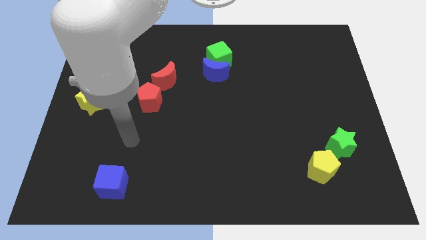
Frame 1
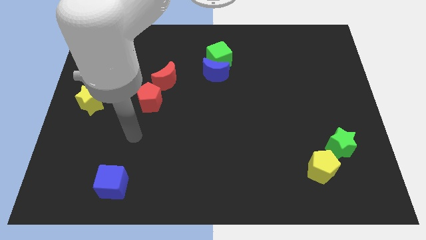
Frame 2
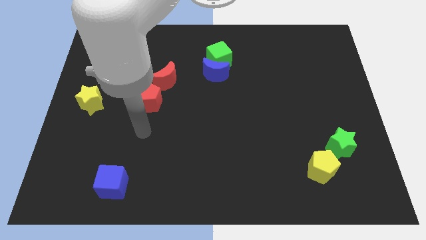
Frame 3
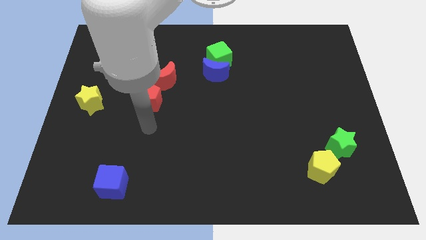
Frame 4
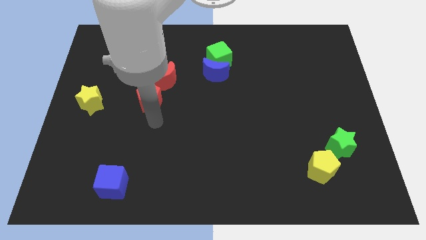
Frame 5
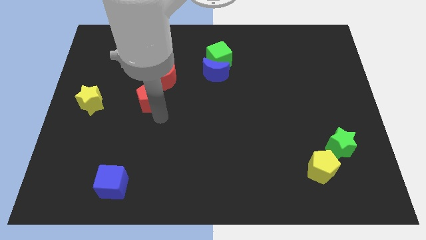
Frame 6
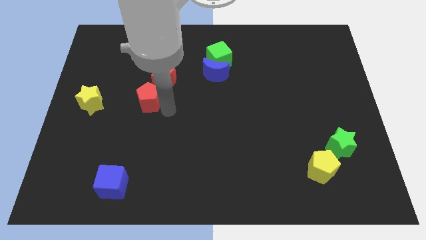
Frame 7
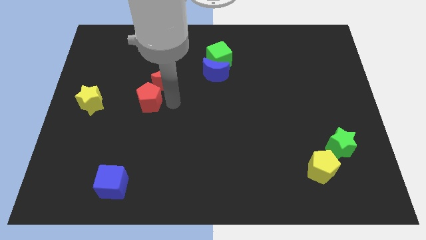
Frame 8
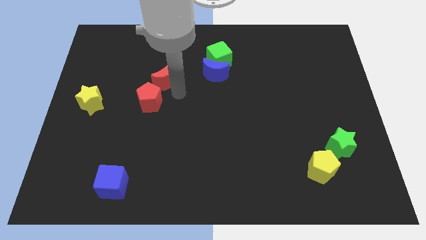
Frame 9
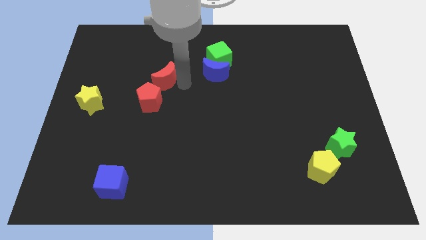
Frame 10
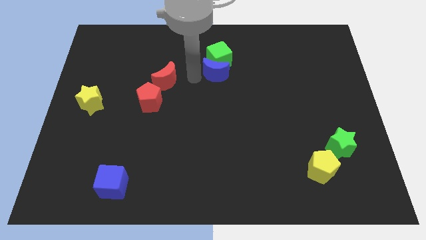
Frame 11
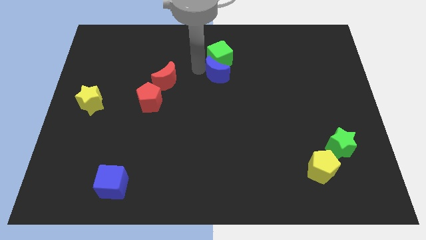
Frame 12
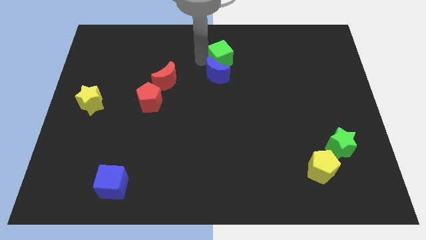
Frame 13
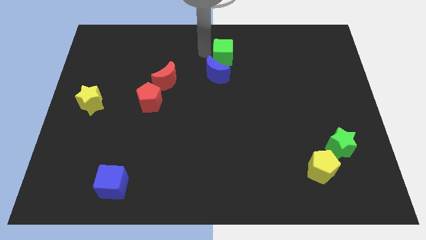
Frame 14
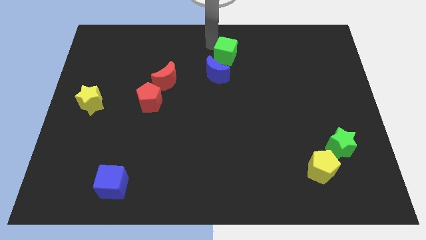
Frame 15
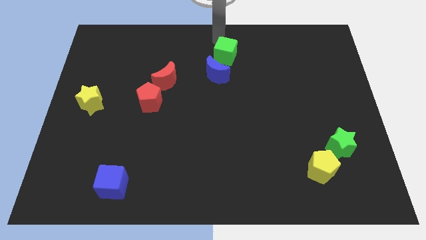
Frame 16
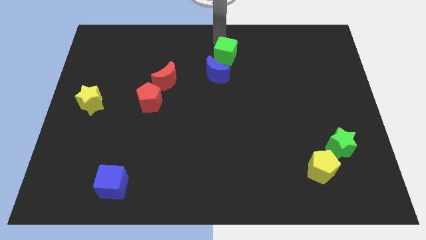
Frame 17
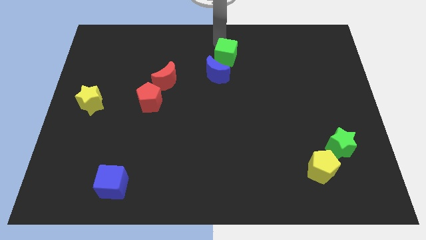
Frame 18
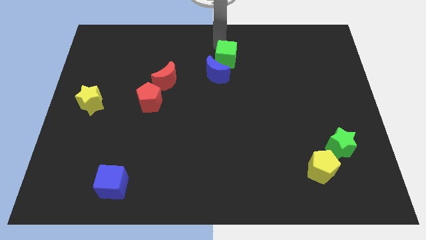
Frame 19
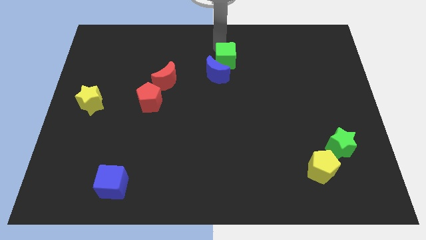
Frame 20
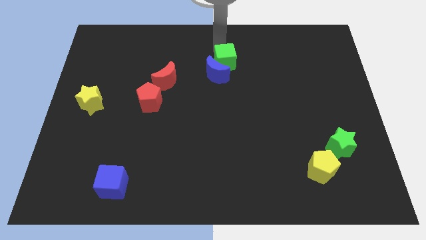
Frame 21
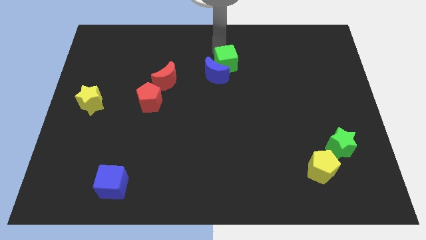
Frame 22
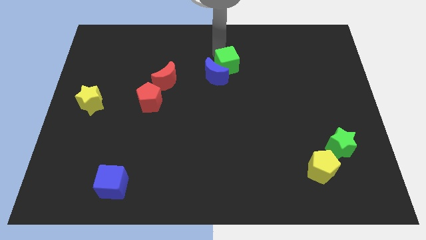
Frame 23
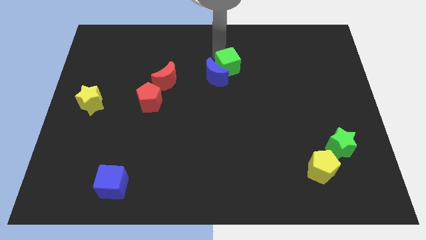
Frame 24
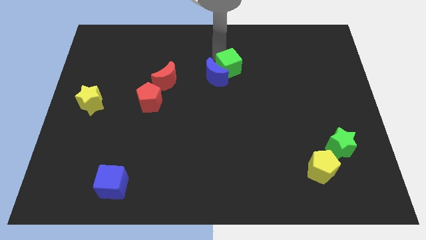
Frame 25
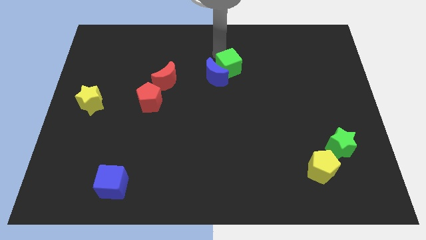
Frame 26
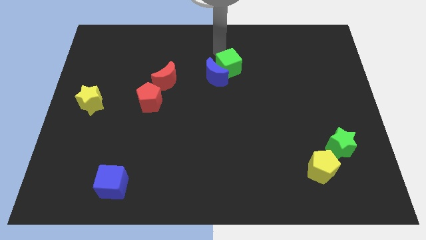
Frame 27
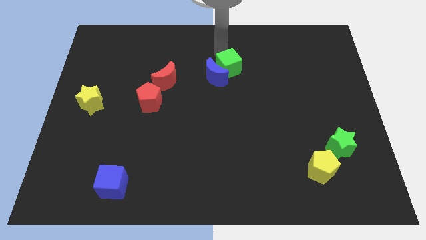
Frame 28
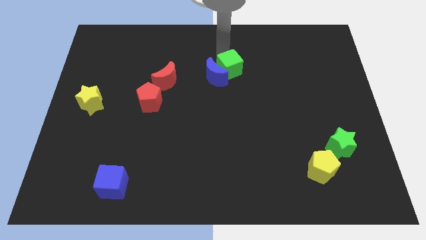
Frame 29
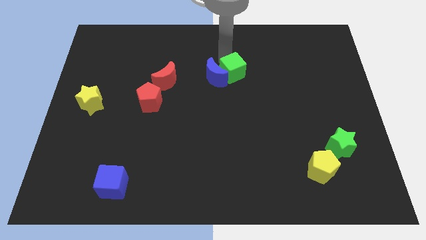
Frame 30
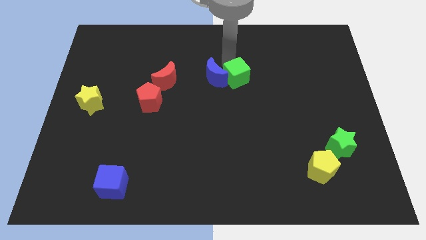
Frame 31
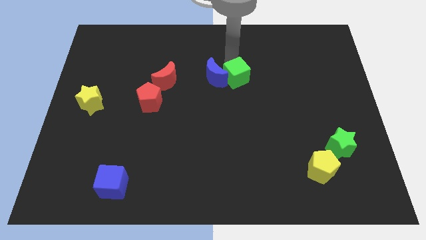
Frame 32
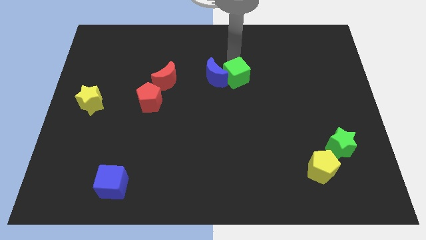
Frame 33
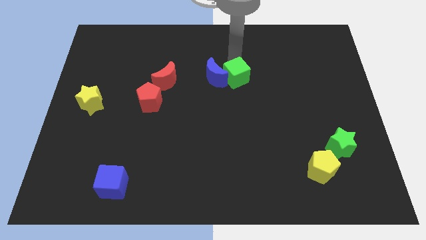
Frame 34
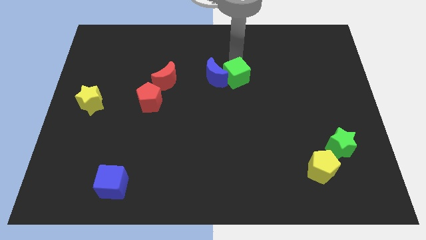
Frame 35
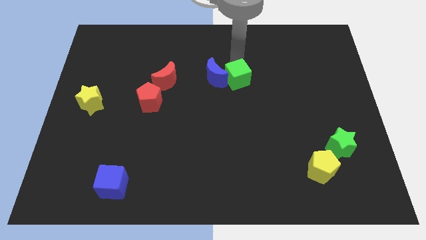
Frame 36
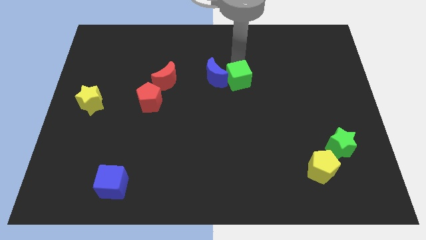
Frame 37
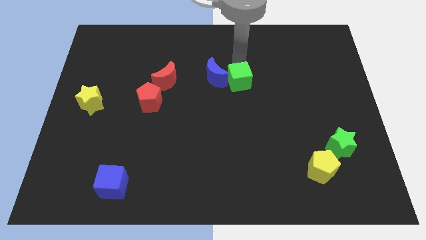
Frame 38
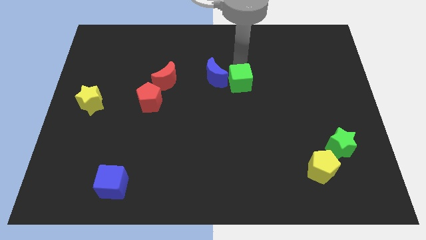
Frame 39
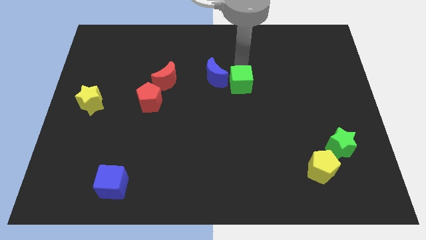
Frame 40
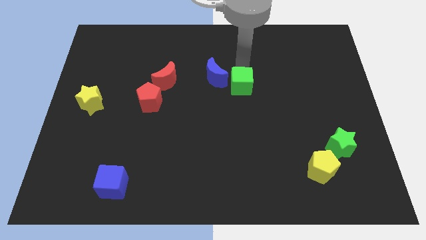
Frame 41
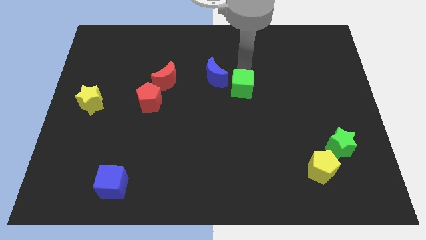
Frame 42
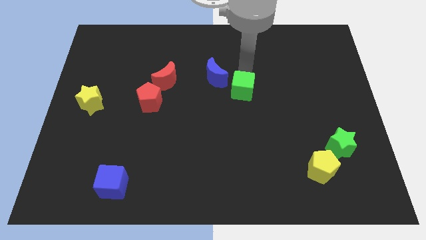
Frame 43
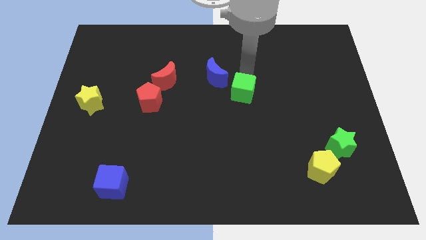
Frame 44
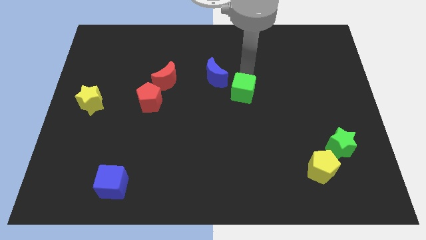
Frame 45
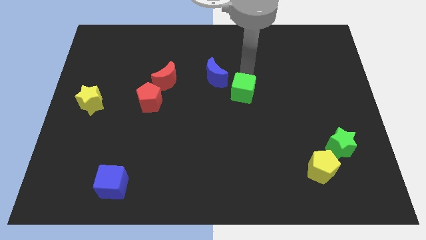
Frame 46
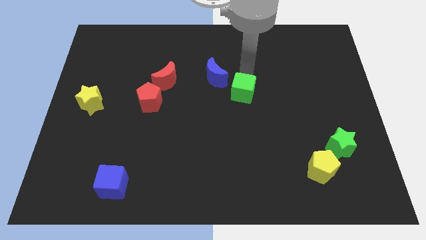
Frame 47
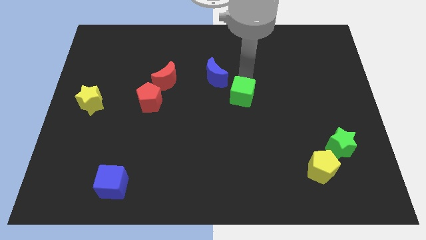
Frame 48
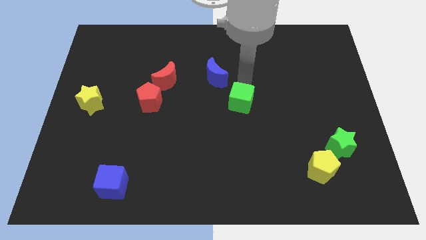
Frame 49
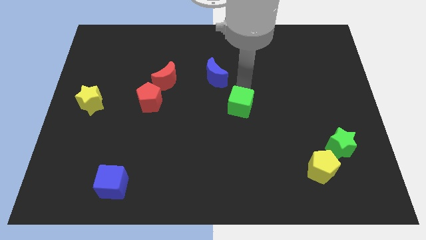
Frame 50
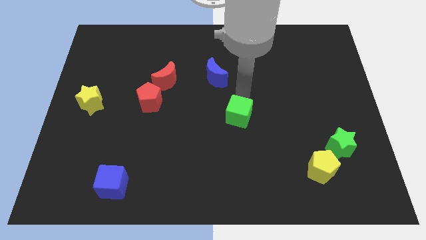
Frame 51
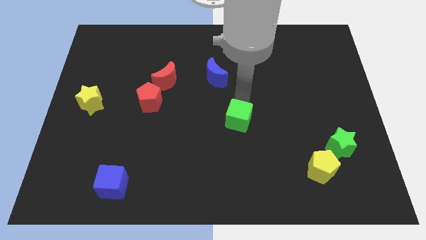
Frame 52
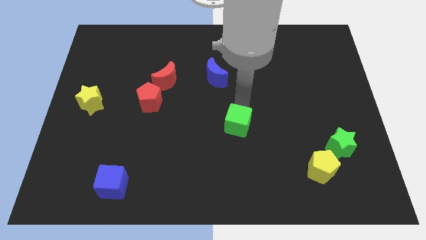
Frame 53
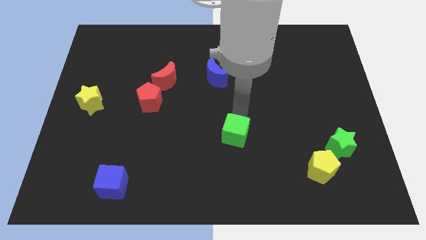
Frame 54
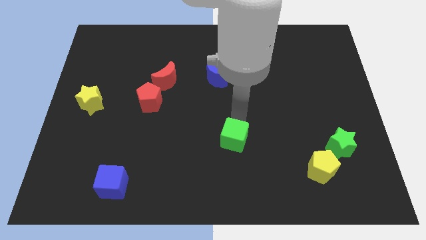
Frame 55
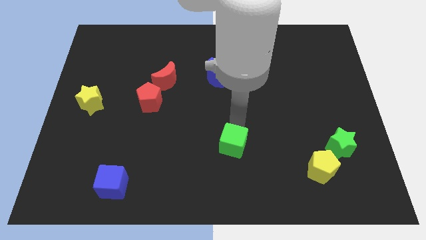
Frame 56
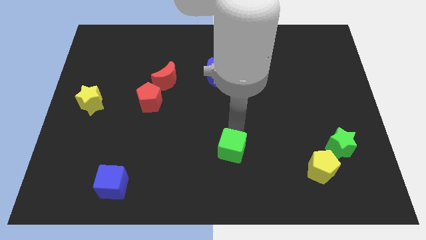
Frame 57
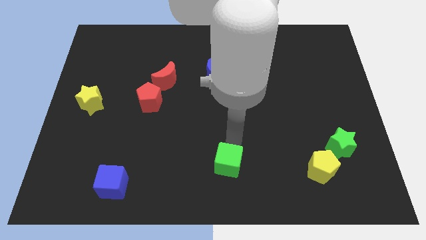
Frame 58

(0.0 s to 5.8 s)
slide the green cube to the bottom side
